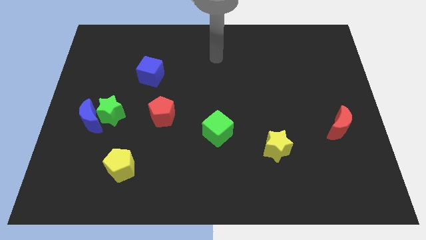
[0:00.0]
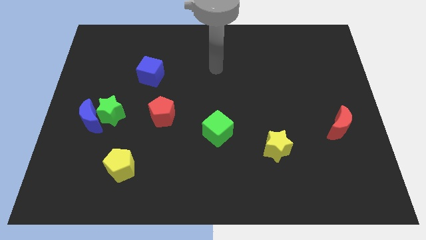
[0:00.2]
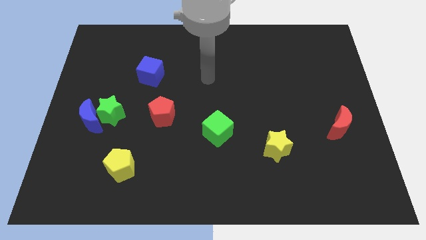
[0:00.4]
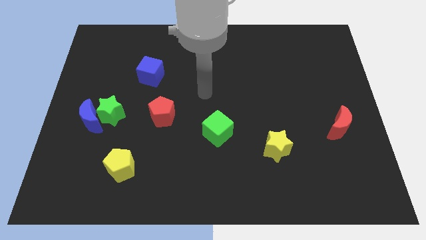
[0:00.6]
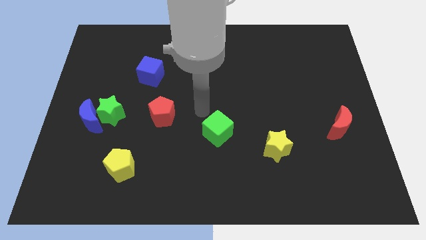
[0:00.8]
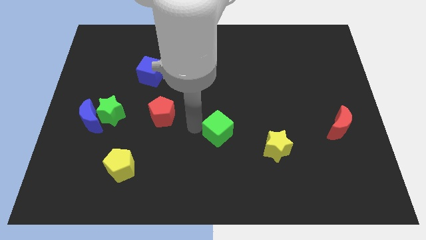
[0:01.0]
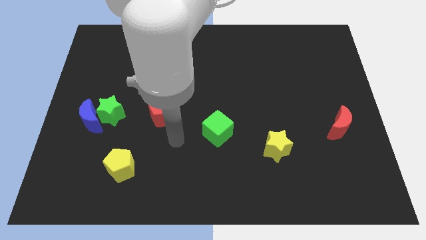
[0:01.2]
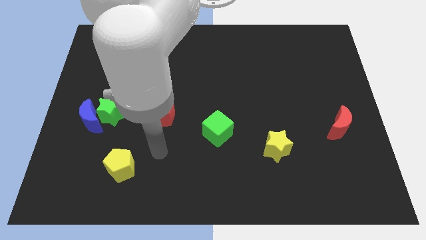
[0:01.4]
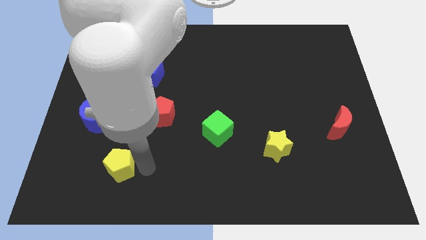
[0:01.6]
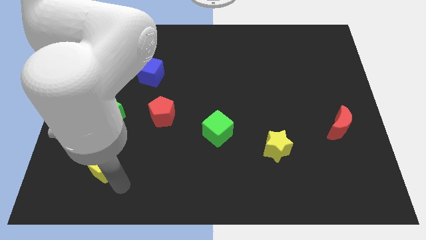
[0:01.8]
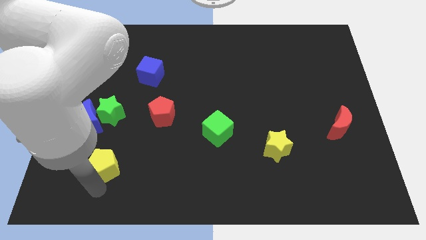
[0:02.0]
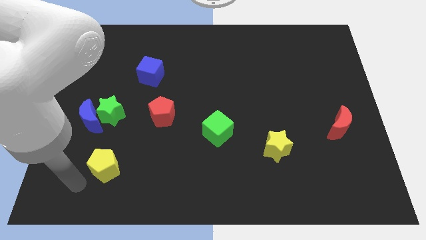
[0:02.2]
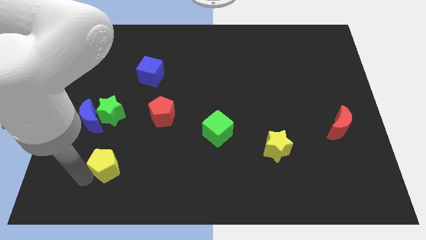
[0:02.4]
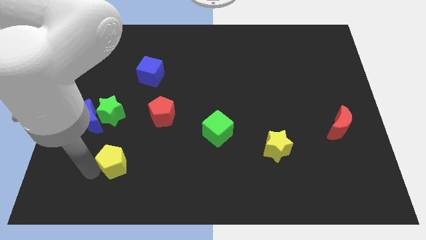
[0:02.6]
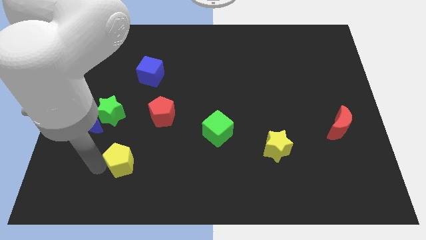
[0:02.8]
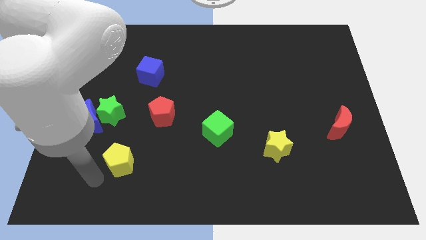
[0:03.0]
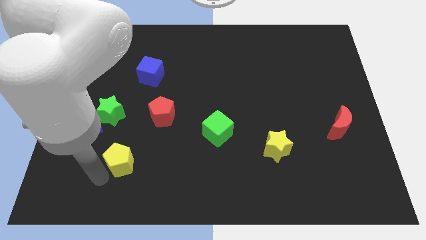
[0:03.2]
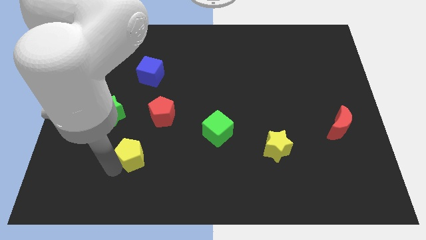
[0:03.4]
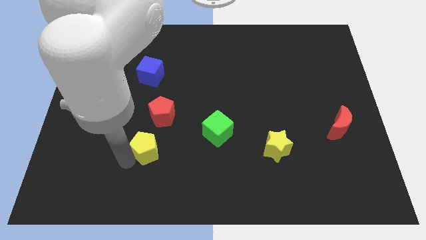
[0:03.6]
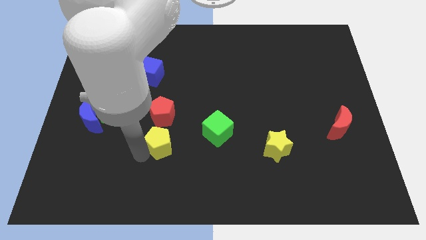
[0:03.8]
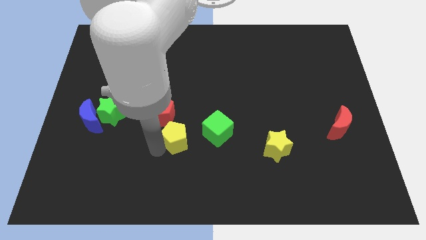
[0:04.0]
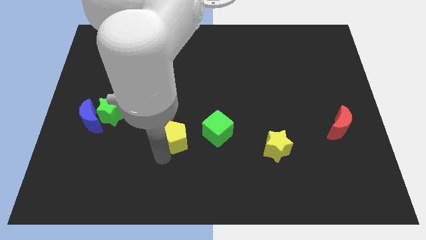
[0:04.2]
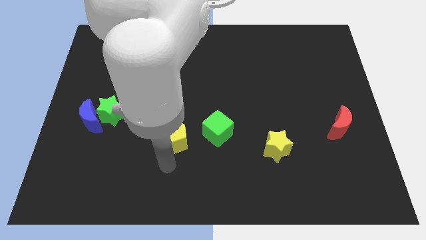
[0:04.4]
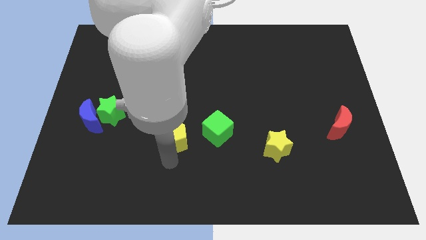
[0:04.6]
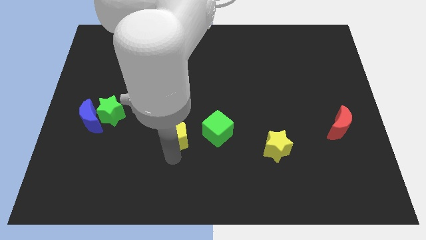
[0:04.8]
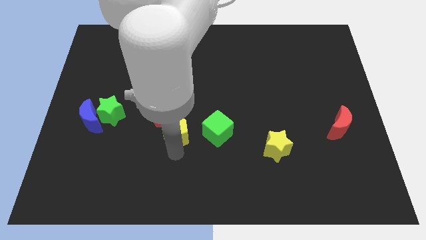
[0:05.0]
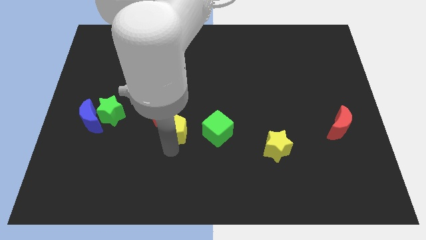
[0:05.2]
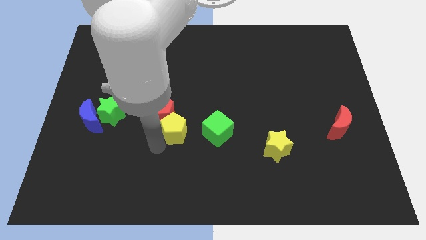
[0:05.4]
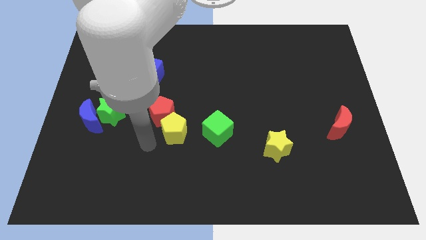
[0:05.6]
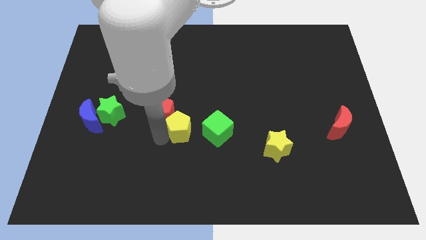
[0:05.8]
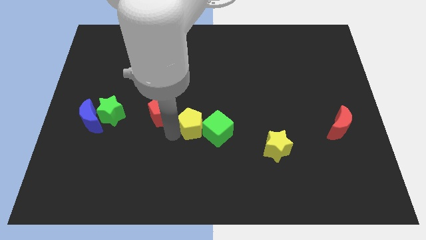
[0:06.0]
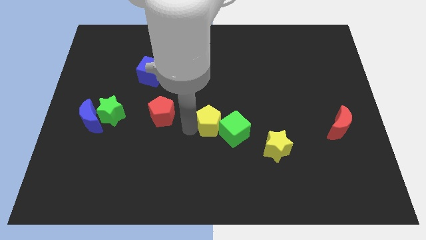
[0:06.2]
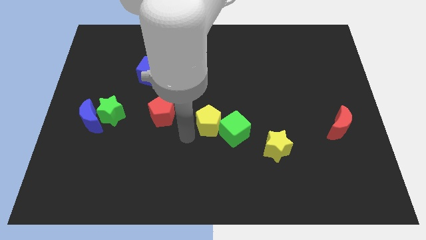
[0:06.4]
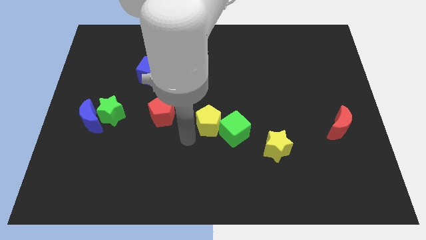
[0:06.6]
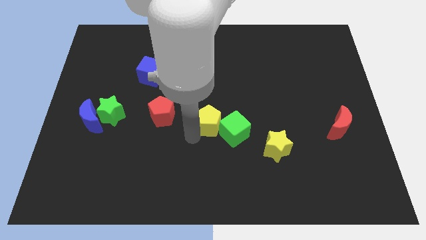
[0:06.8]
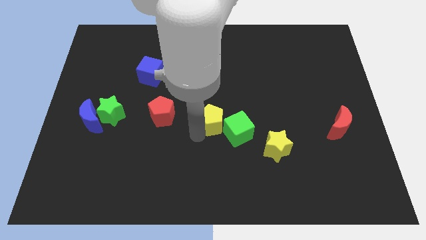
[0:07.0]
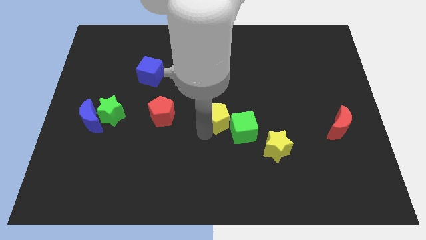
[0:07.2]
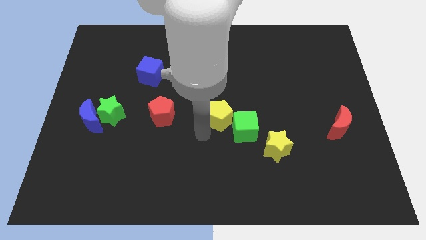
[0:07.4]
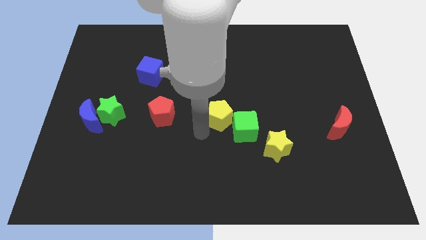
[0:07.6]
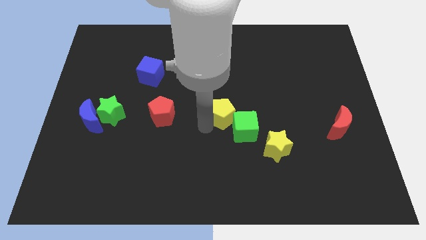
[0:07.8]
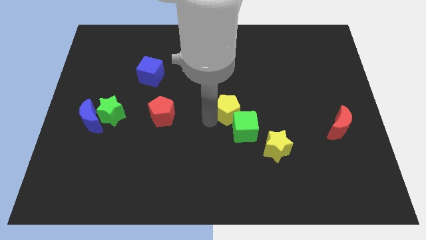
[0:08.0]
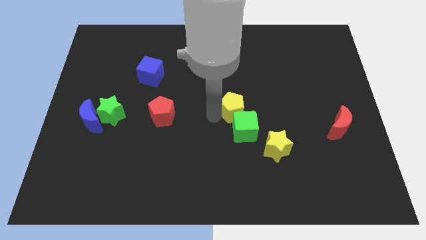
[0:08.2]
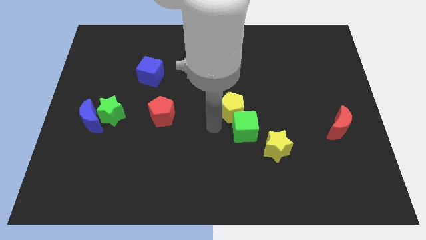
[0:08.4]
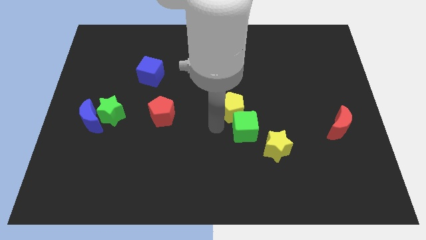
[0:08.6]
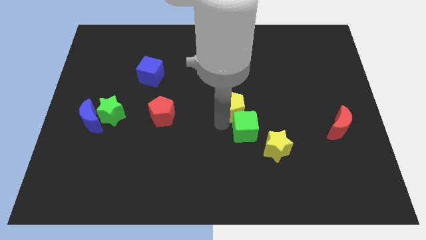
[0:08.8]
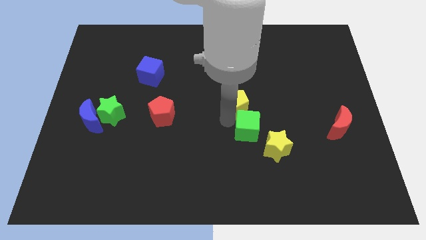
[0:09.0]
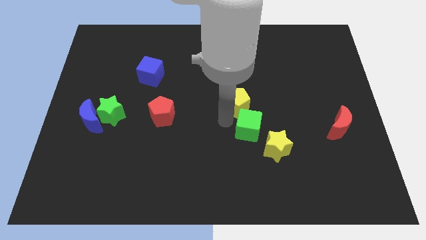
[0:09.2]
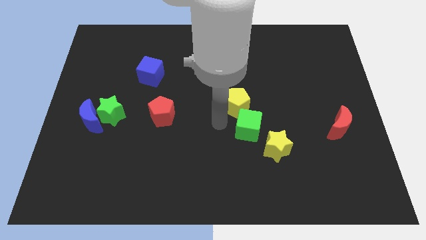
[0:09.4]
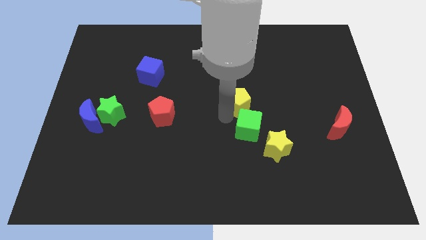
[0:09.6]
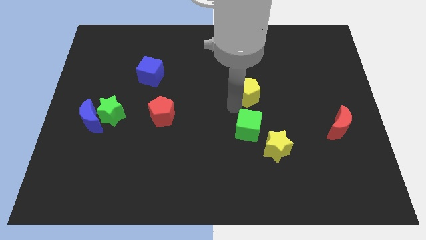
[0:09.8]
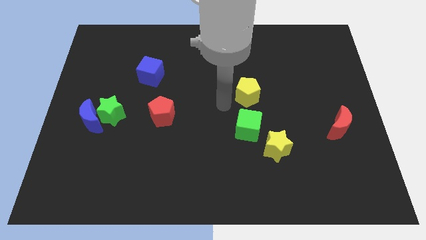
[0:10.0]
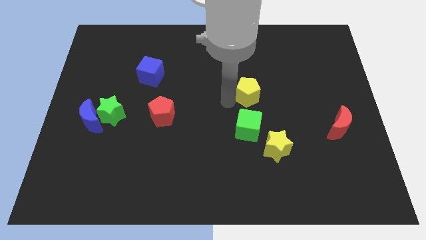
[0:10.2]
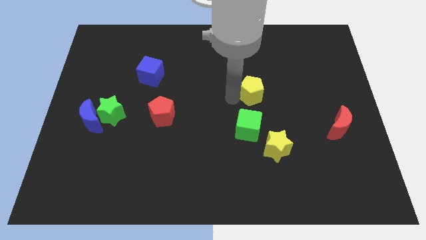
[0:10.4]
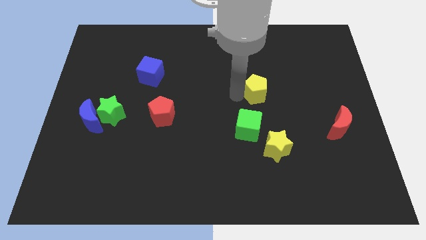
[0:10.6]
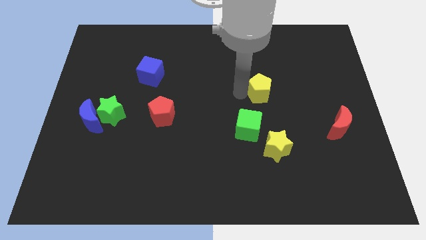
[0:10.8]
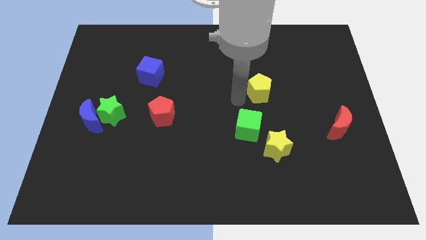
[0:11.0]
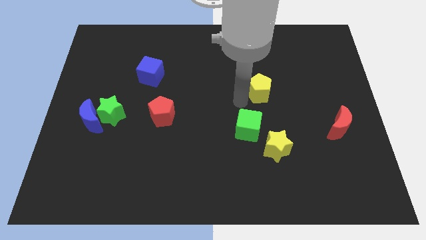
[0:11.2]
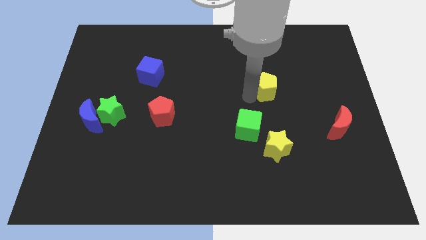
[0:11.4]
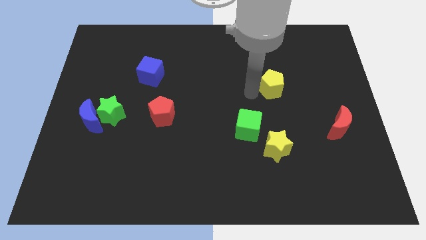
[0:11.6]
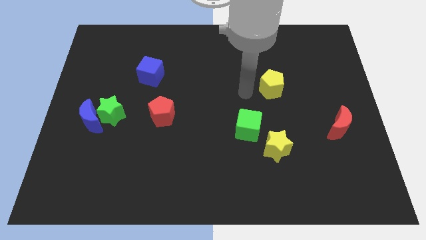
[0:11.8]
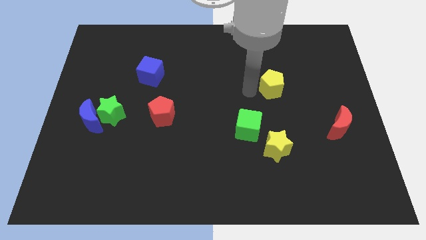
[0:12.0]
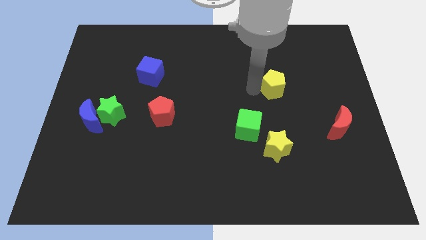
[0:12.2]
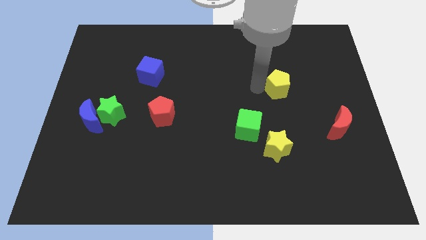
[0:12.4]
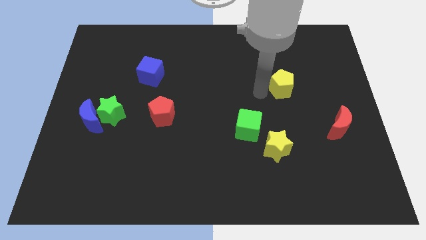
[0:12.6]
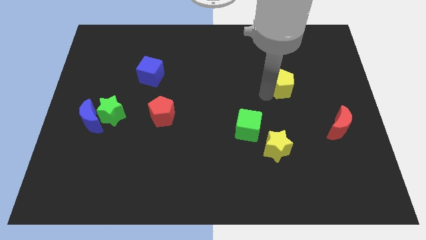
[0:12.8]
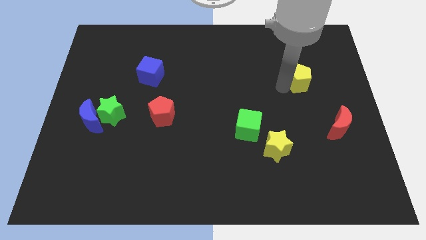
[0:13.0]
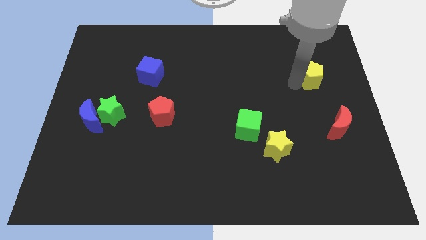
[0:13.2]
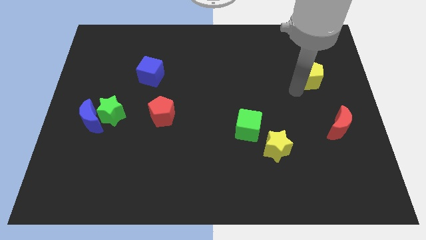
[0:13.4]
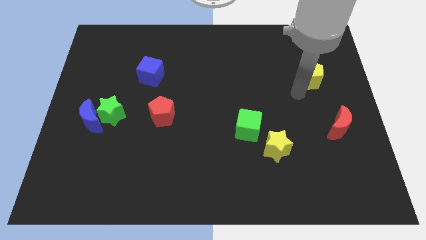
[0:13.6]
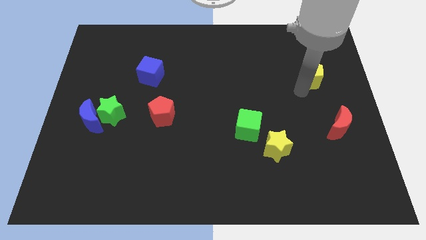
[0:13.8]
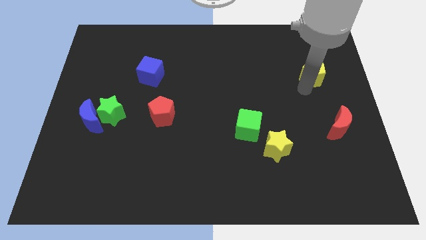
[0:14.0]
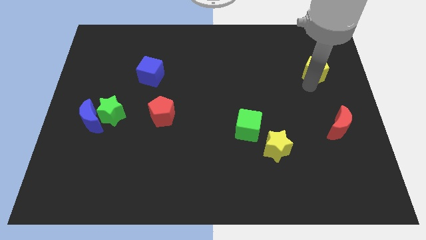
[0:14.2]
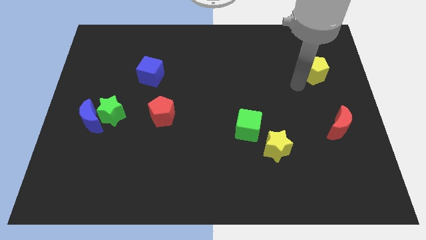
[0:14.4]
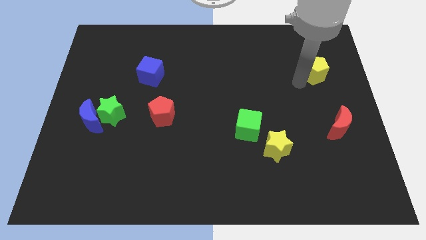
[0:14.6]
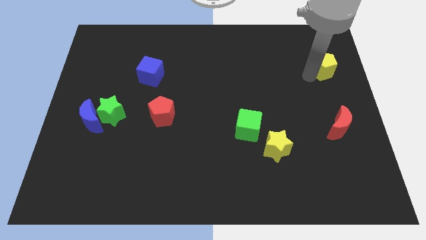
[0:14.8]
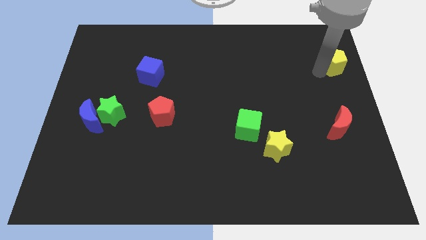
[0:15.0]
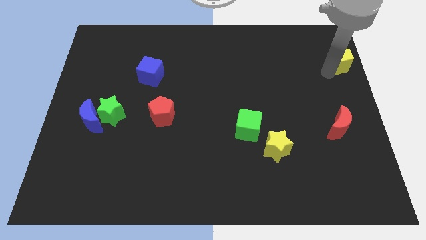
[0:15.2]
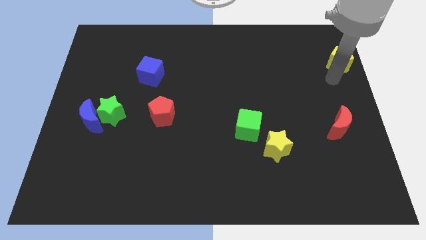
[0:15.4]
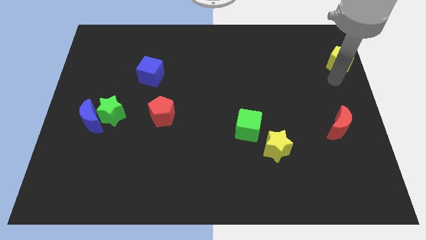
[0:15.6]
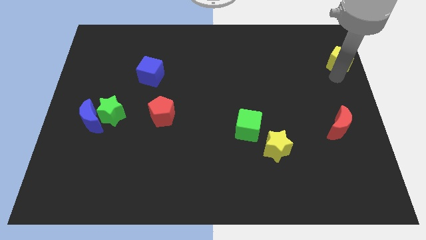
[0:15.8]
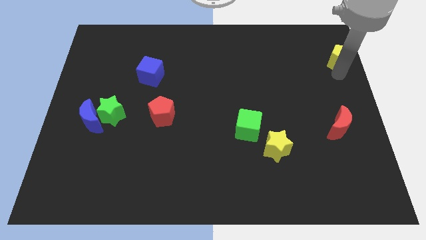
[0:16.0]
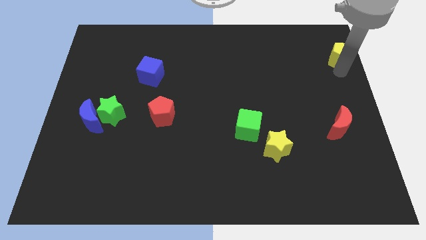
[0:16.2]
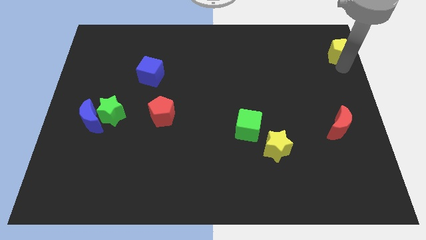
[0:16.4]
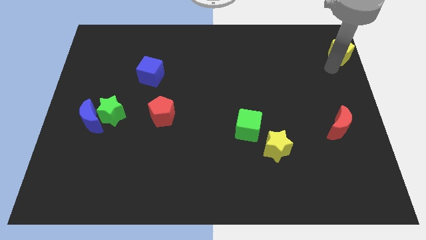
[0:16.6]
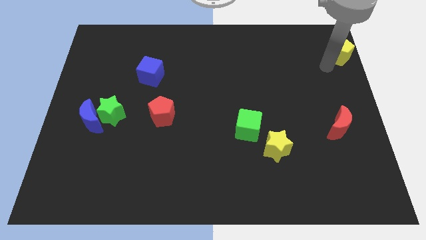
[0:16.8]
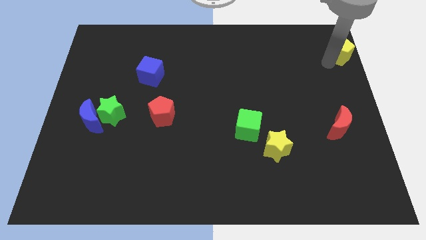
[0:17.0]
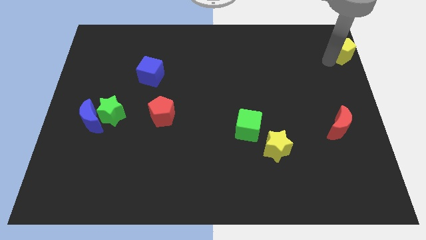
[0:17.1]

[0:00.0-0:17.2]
move the yellow pentagon to the top right
